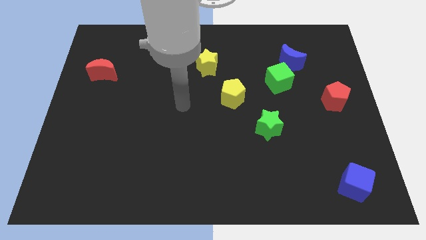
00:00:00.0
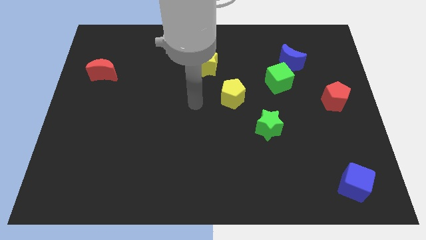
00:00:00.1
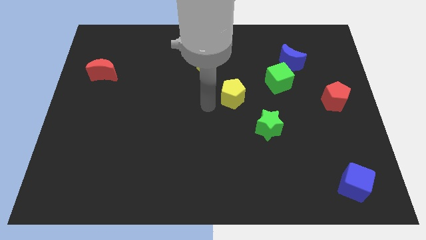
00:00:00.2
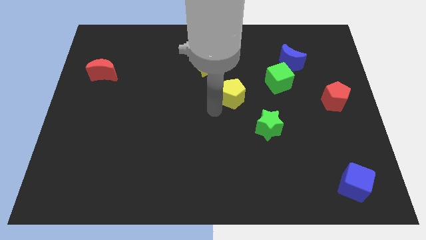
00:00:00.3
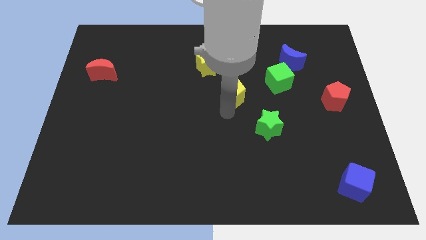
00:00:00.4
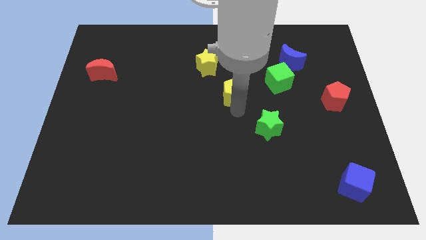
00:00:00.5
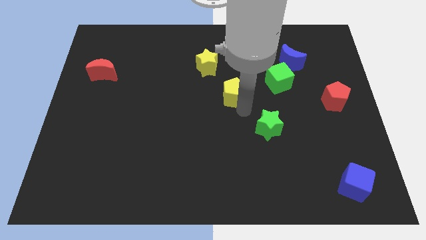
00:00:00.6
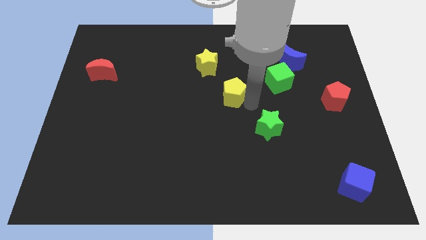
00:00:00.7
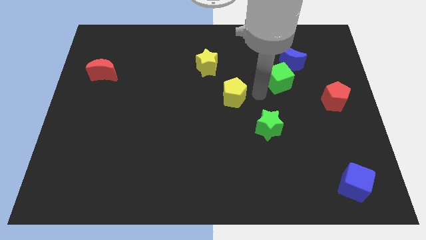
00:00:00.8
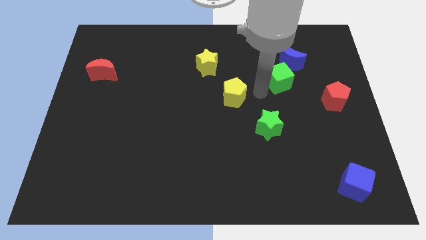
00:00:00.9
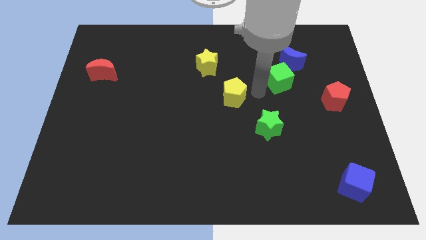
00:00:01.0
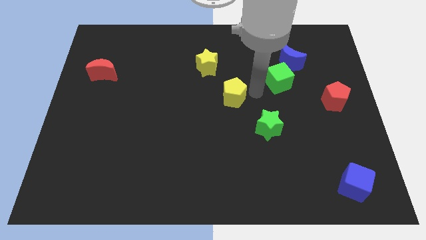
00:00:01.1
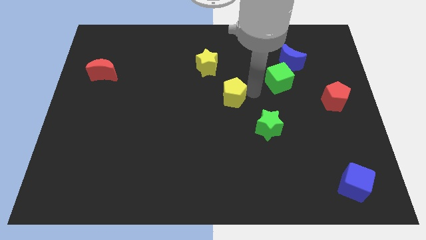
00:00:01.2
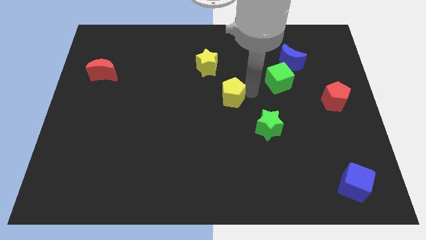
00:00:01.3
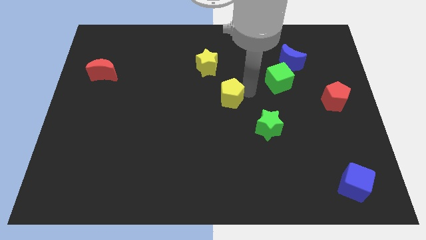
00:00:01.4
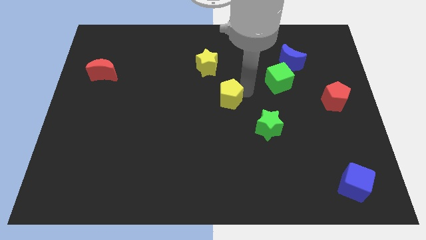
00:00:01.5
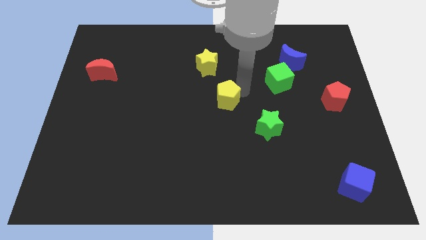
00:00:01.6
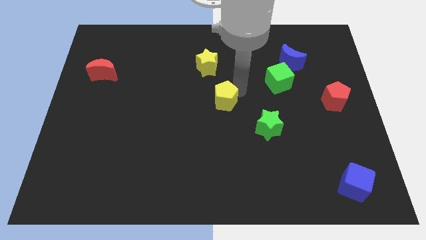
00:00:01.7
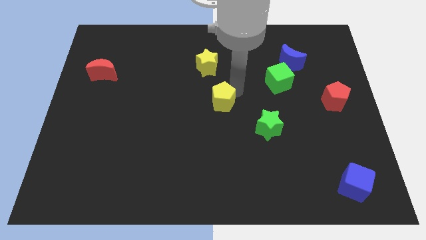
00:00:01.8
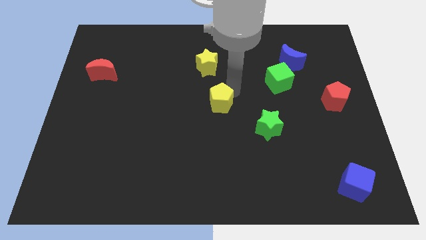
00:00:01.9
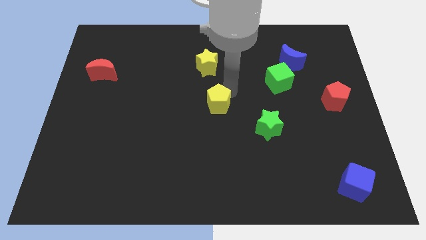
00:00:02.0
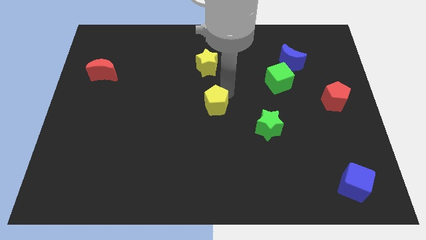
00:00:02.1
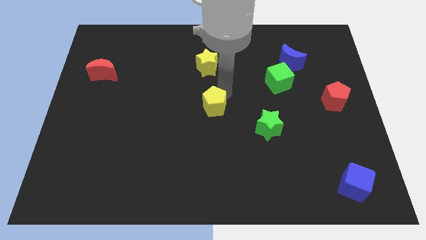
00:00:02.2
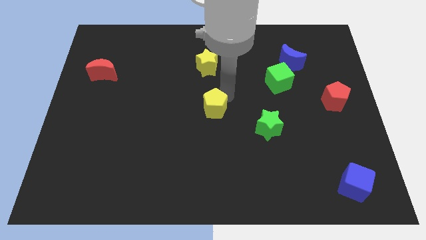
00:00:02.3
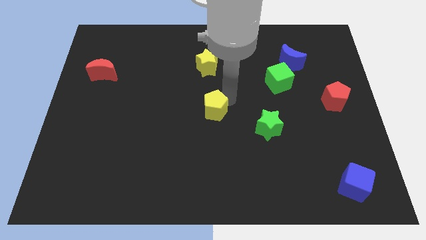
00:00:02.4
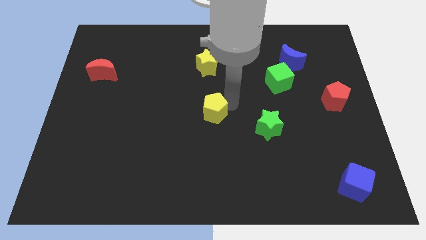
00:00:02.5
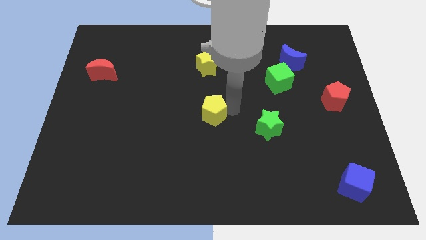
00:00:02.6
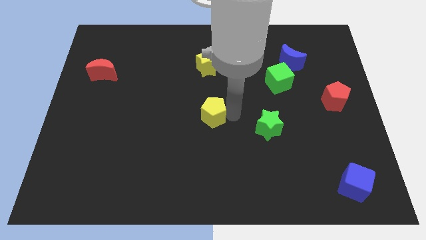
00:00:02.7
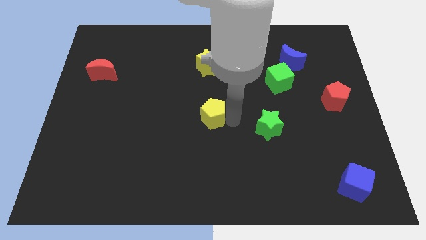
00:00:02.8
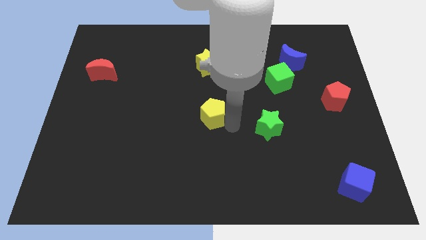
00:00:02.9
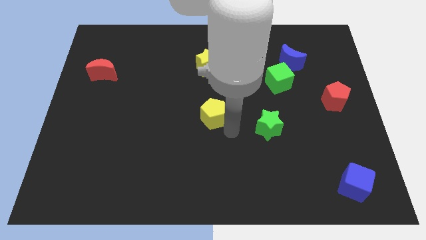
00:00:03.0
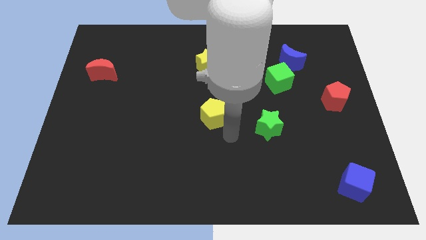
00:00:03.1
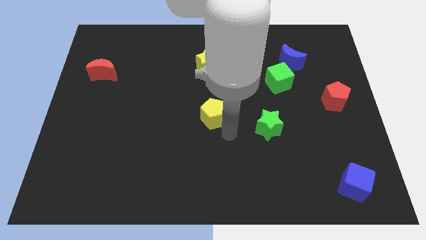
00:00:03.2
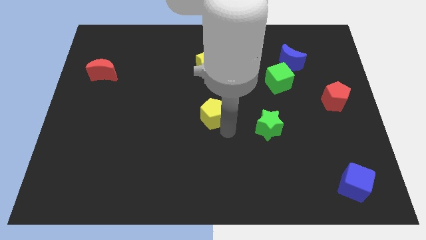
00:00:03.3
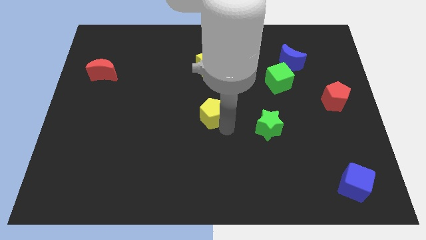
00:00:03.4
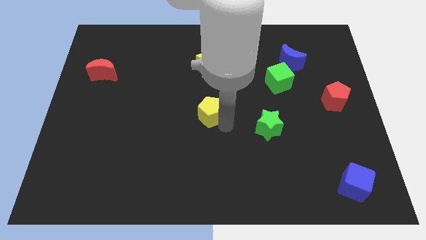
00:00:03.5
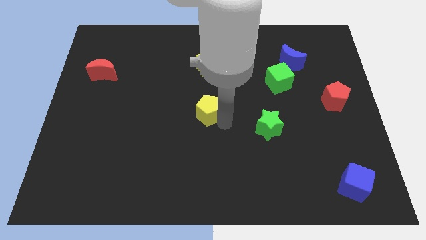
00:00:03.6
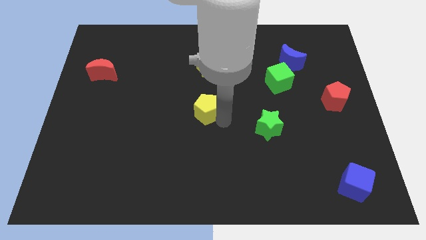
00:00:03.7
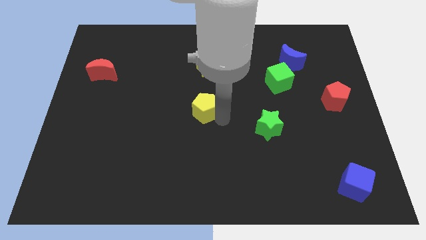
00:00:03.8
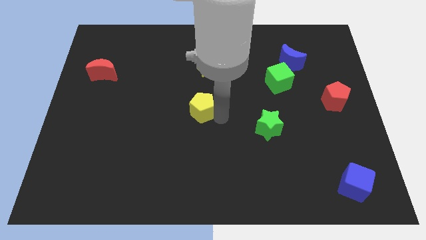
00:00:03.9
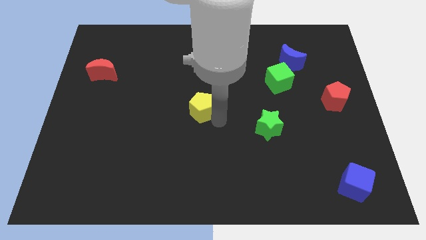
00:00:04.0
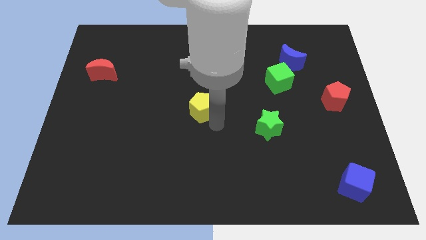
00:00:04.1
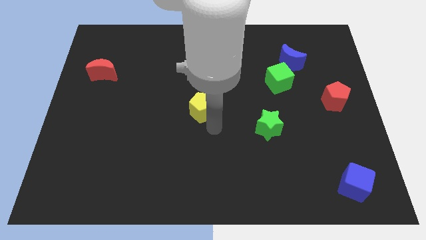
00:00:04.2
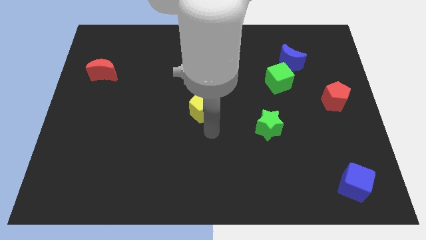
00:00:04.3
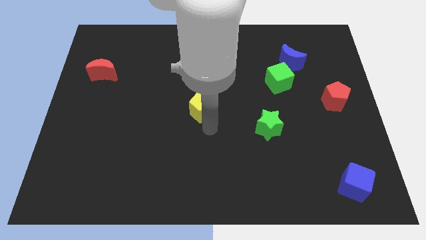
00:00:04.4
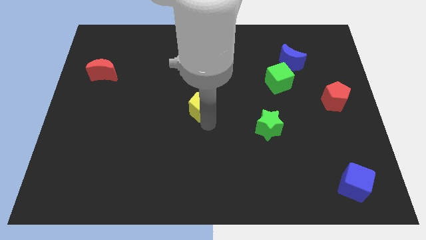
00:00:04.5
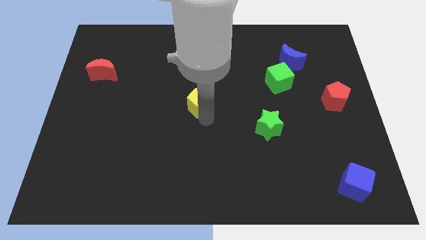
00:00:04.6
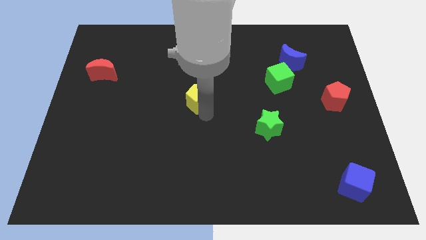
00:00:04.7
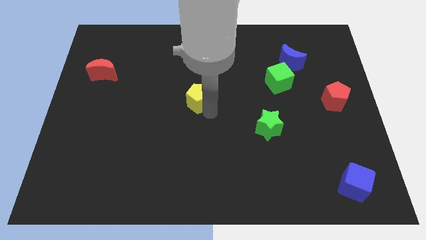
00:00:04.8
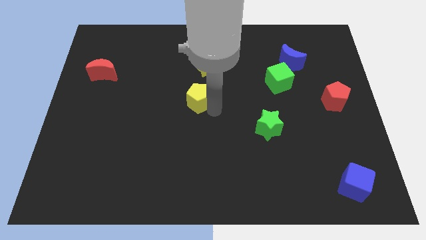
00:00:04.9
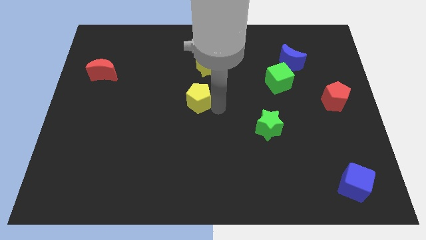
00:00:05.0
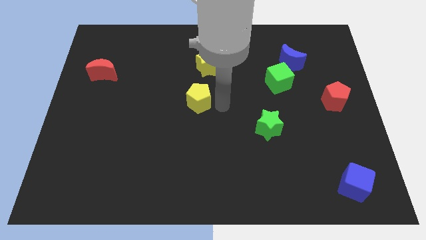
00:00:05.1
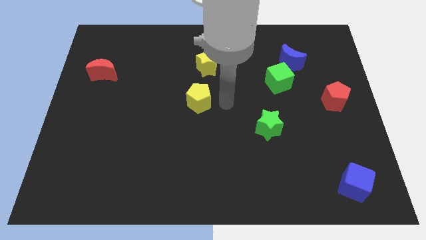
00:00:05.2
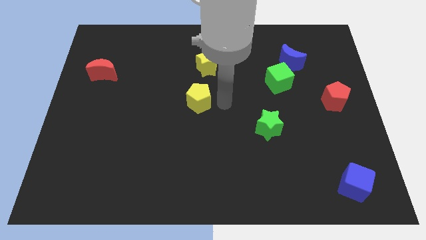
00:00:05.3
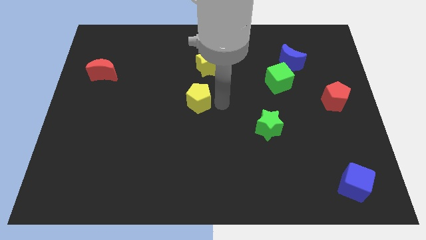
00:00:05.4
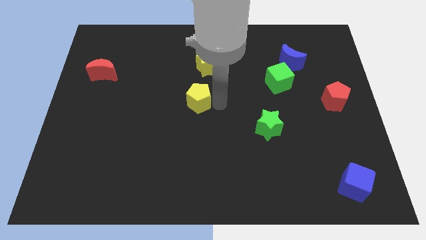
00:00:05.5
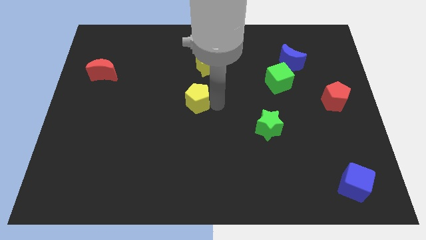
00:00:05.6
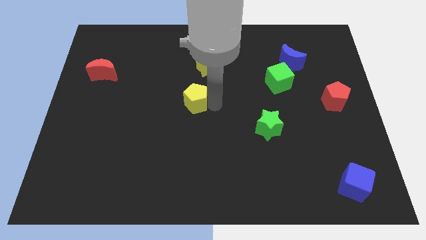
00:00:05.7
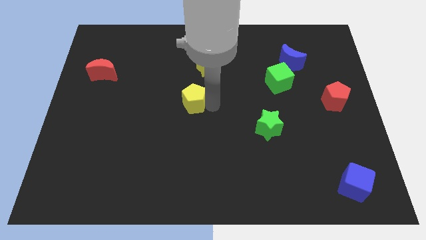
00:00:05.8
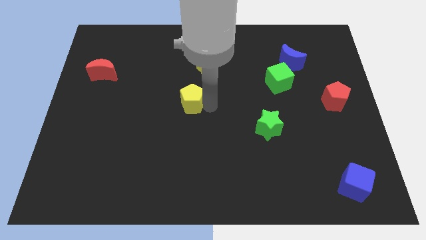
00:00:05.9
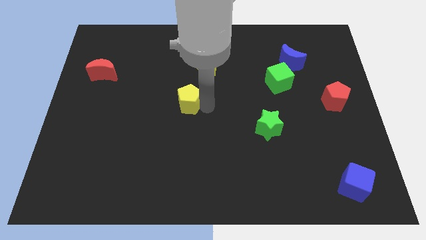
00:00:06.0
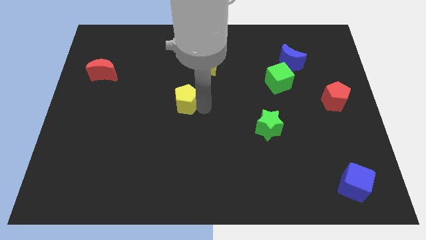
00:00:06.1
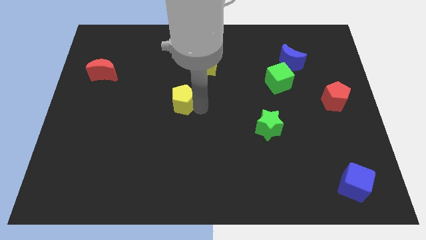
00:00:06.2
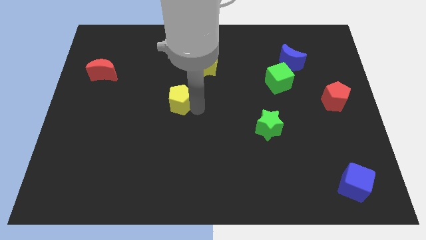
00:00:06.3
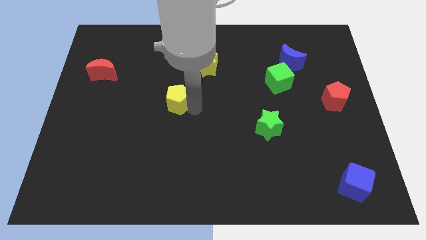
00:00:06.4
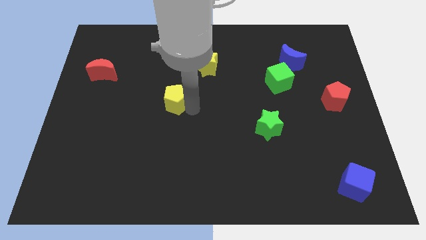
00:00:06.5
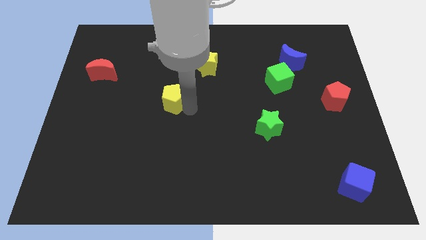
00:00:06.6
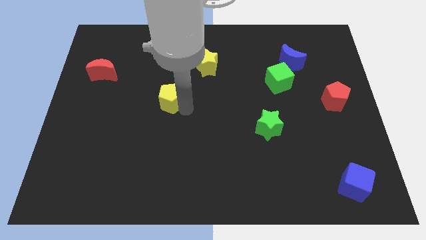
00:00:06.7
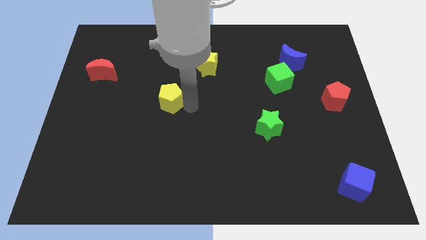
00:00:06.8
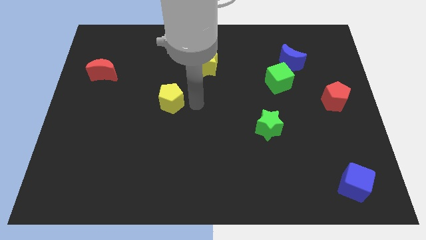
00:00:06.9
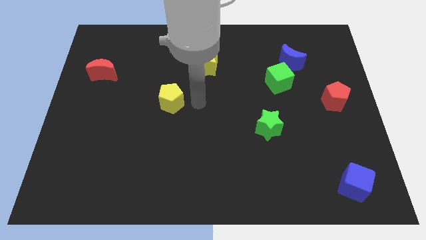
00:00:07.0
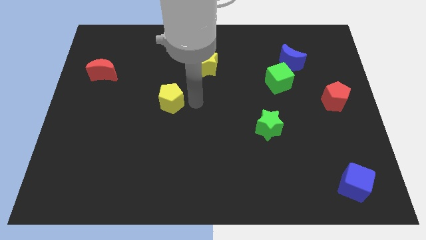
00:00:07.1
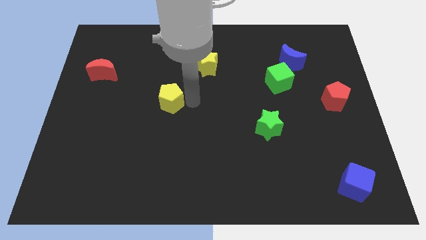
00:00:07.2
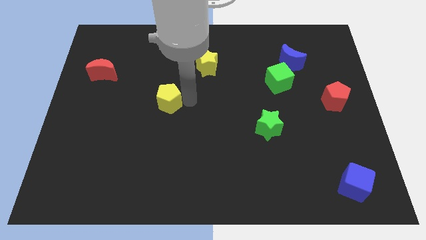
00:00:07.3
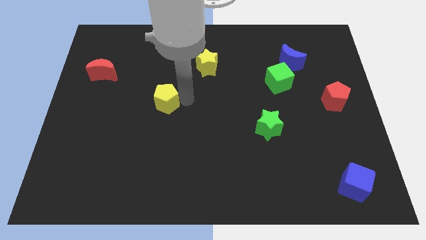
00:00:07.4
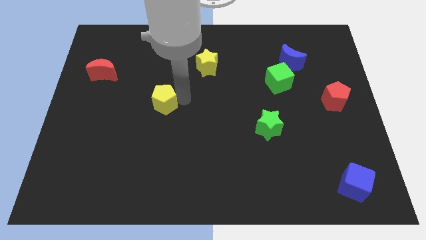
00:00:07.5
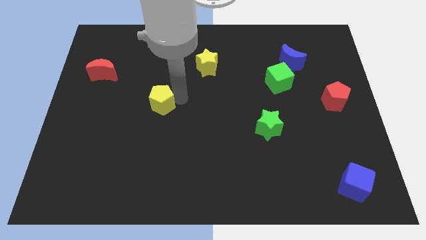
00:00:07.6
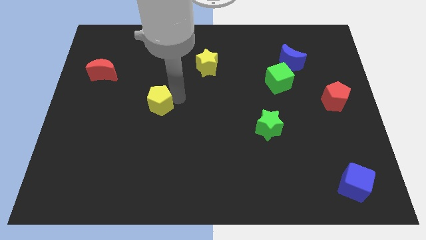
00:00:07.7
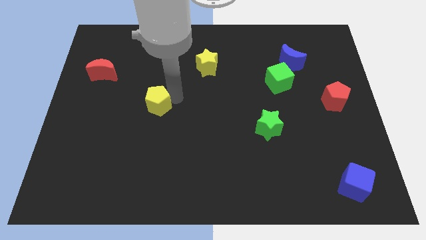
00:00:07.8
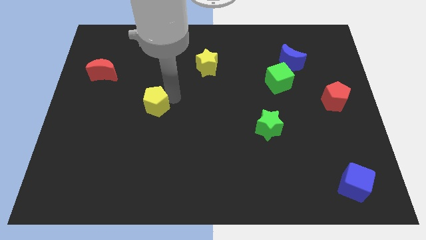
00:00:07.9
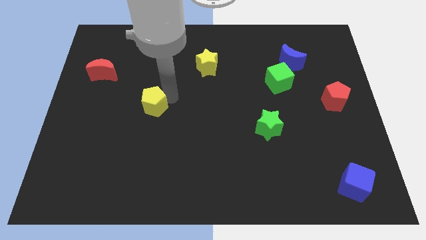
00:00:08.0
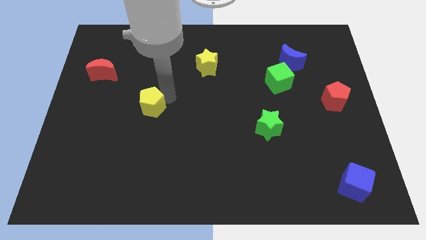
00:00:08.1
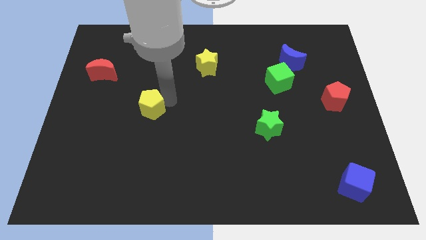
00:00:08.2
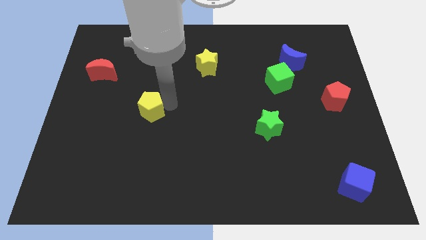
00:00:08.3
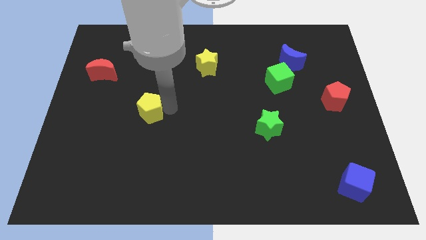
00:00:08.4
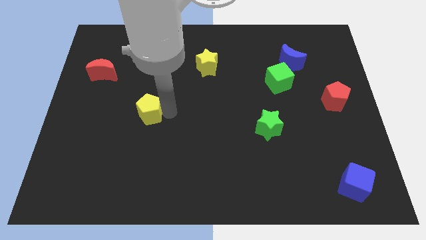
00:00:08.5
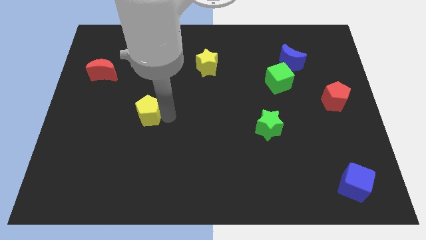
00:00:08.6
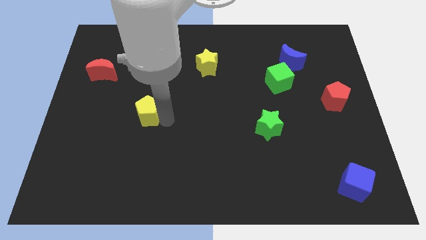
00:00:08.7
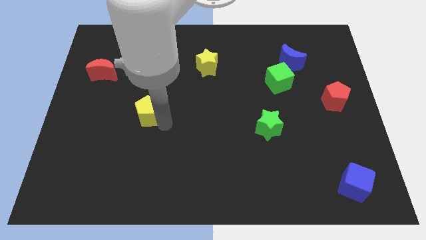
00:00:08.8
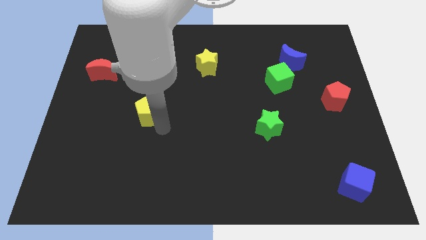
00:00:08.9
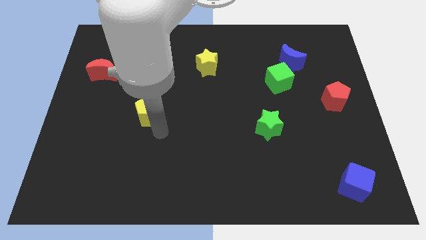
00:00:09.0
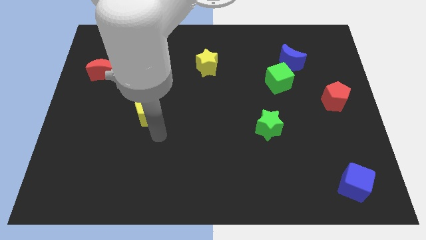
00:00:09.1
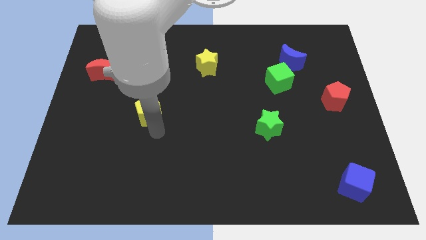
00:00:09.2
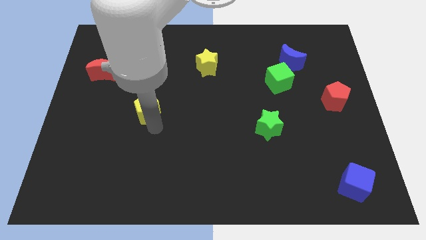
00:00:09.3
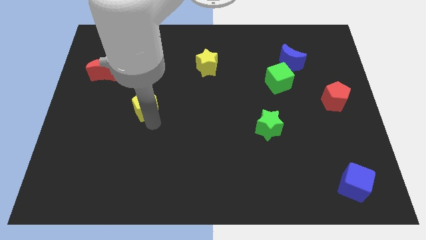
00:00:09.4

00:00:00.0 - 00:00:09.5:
push the yellow pentagon to the left
